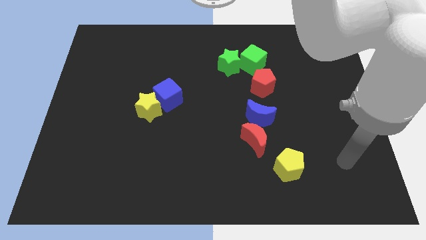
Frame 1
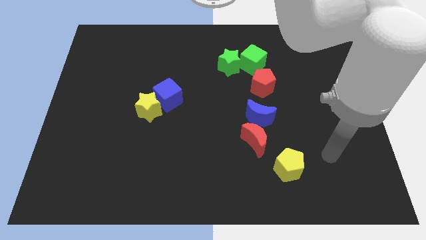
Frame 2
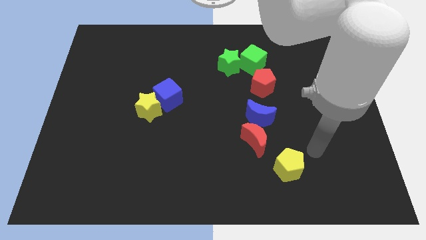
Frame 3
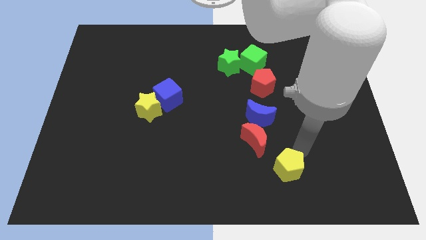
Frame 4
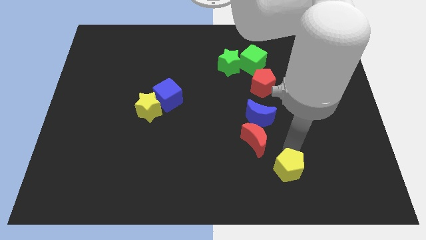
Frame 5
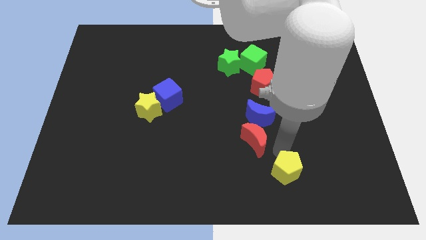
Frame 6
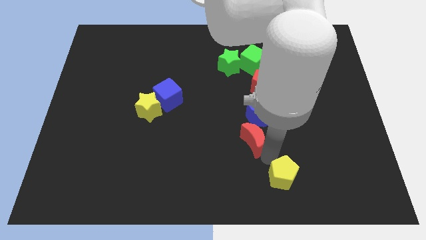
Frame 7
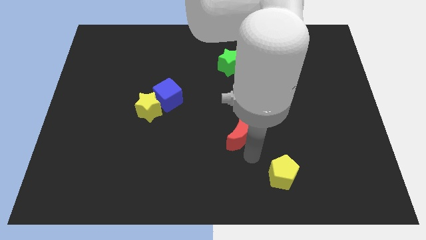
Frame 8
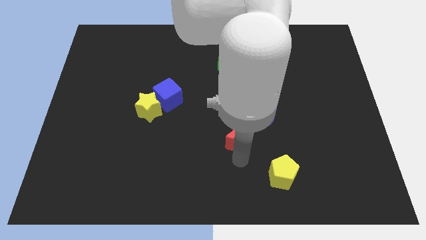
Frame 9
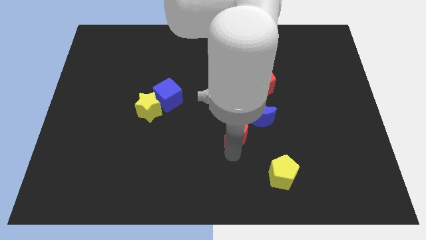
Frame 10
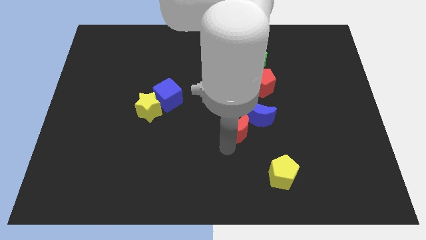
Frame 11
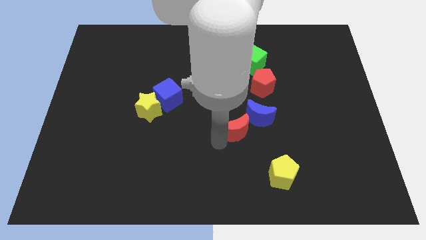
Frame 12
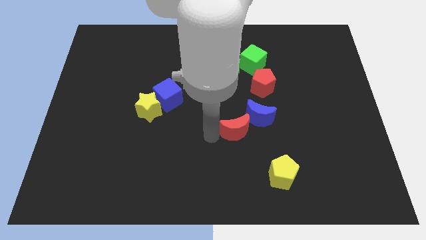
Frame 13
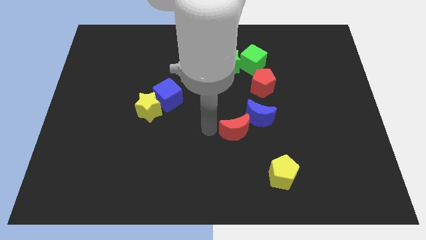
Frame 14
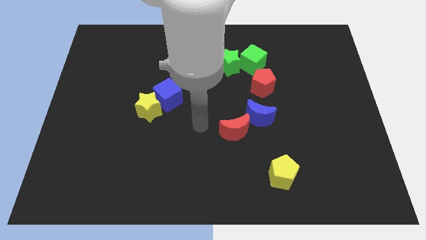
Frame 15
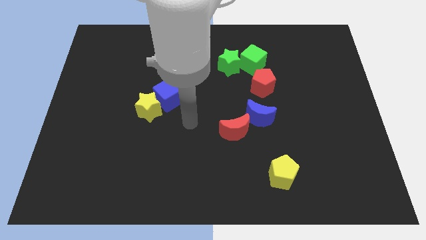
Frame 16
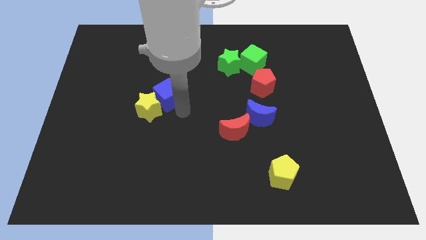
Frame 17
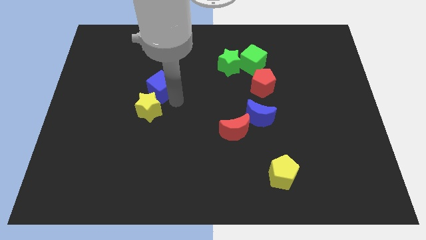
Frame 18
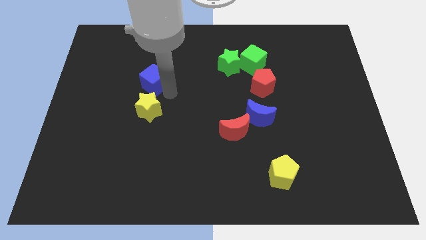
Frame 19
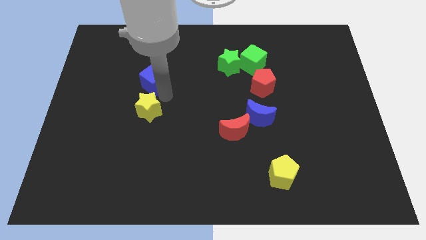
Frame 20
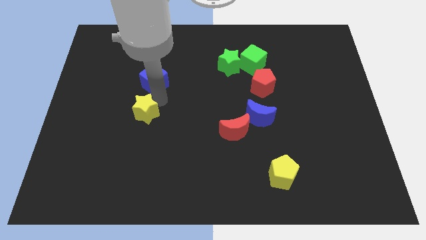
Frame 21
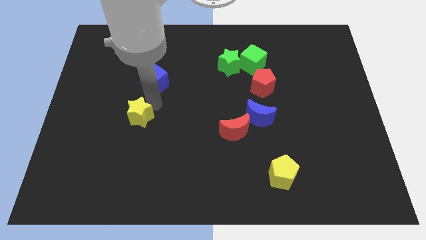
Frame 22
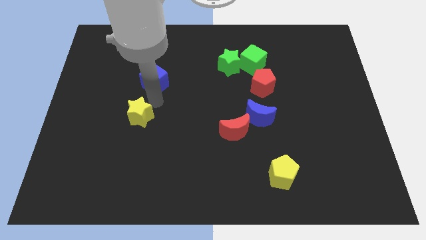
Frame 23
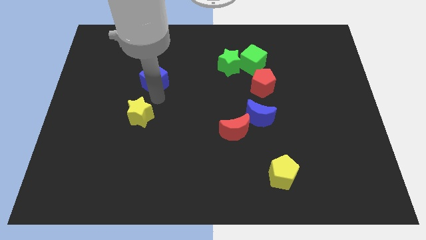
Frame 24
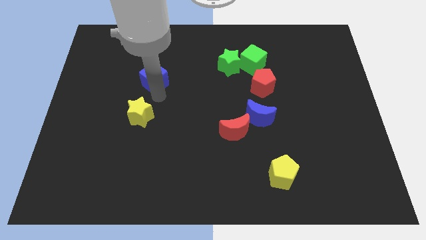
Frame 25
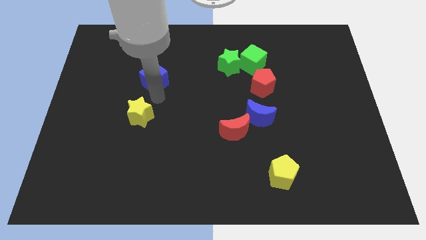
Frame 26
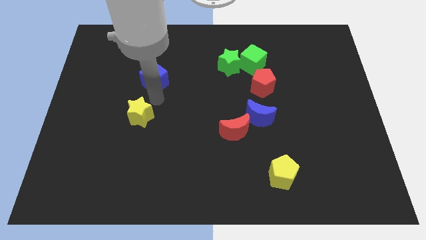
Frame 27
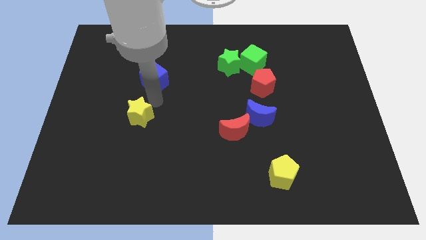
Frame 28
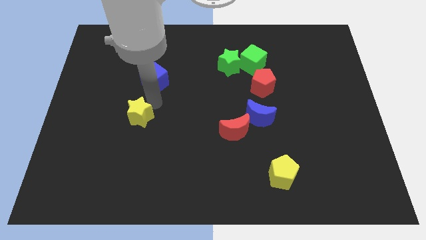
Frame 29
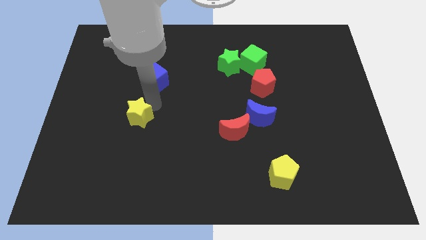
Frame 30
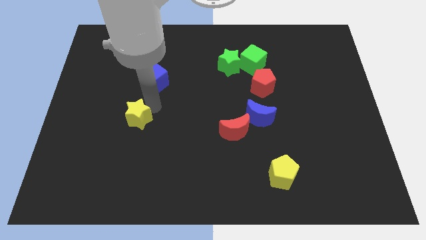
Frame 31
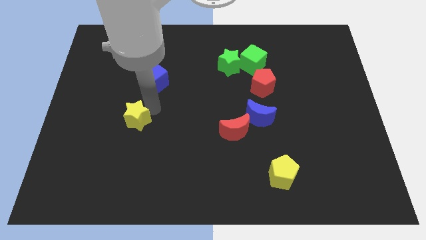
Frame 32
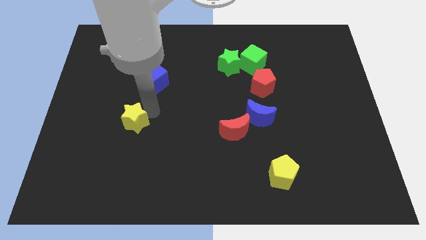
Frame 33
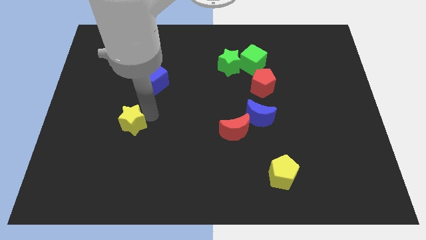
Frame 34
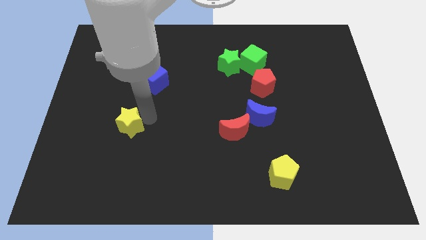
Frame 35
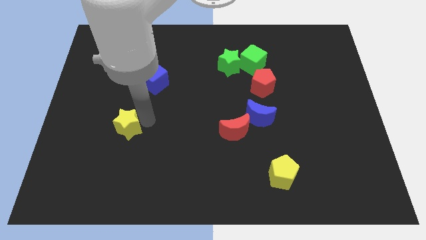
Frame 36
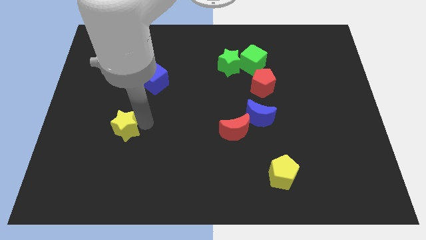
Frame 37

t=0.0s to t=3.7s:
slightly move the yellow star downwards and to the left diagonally

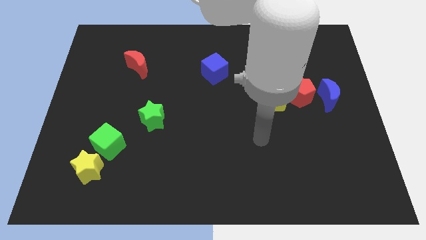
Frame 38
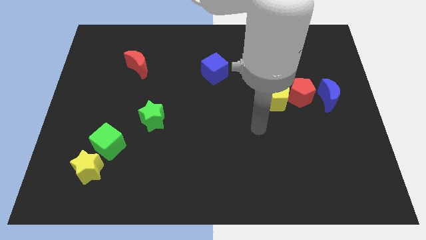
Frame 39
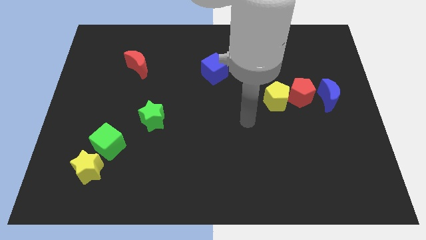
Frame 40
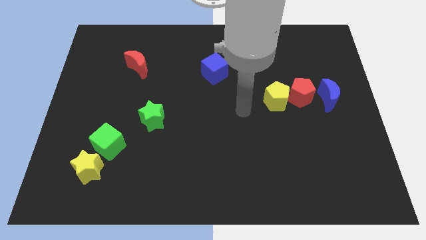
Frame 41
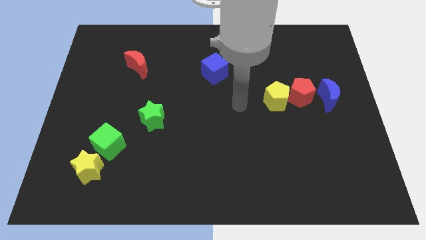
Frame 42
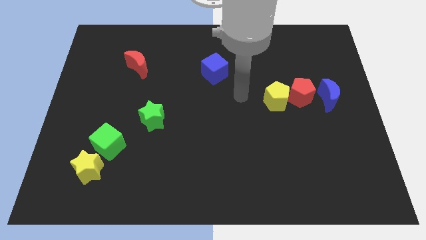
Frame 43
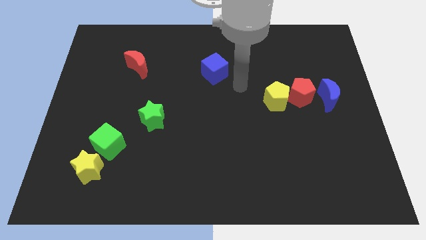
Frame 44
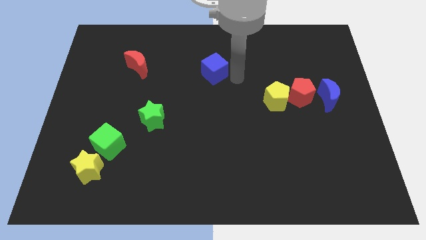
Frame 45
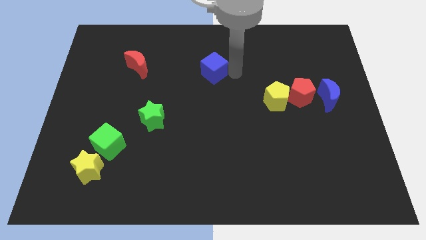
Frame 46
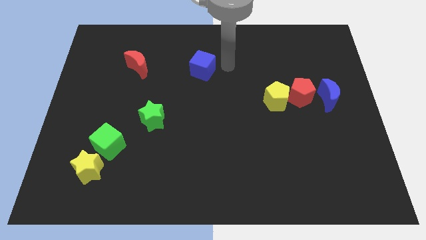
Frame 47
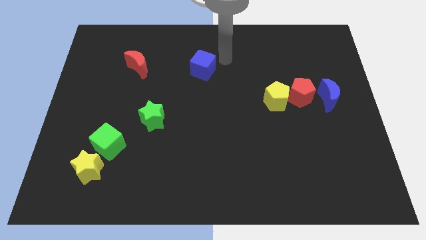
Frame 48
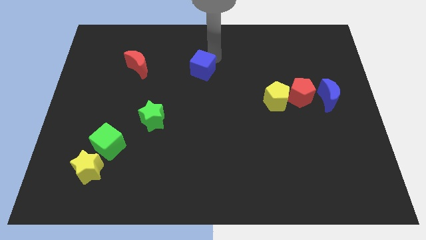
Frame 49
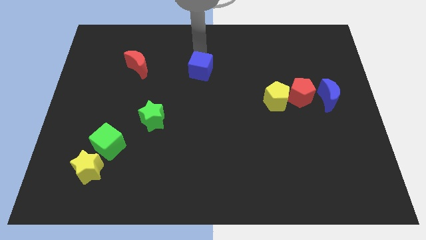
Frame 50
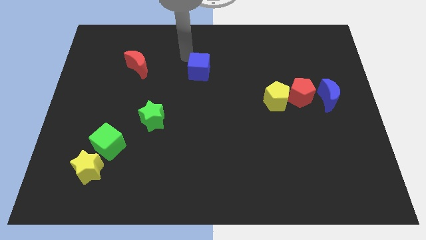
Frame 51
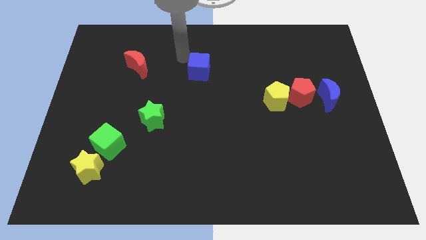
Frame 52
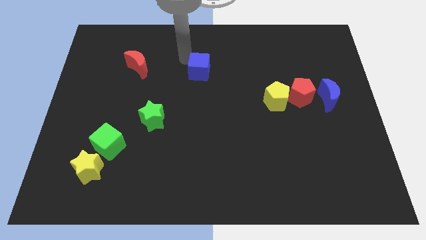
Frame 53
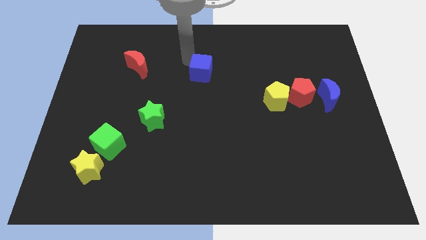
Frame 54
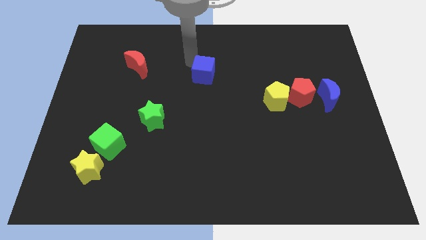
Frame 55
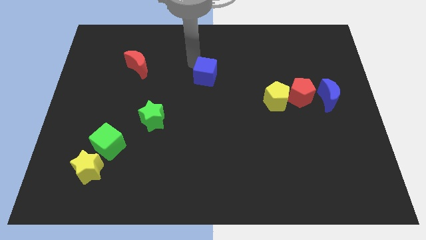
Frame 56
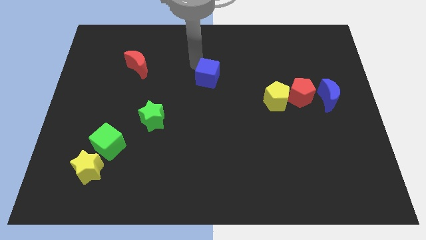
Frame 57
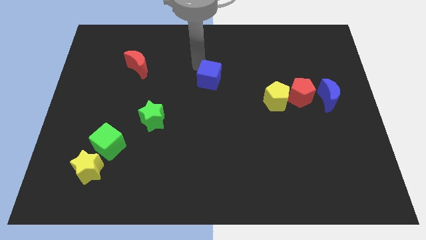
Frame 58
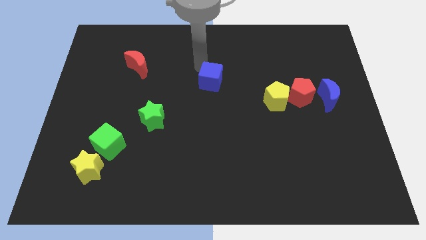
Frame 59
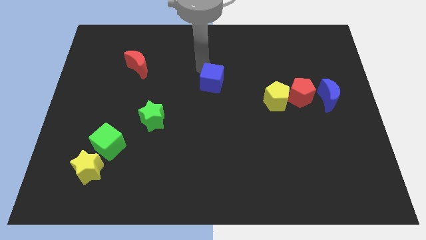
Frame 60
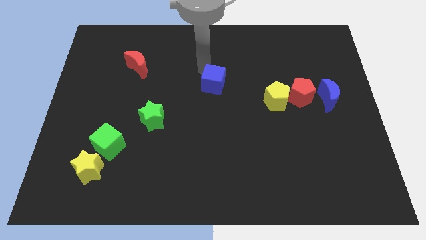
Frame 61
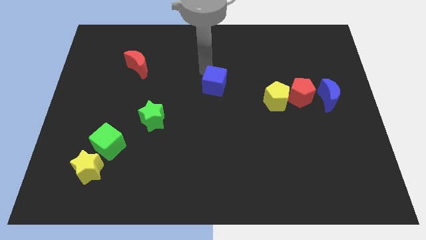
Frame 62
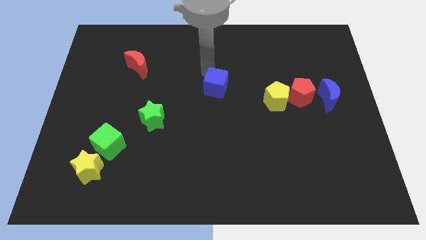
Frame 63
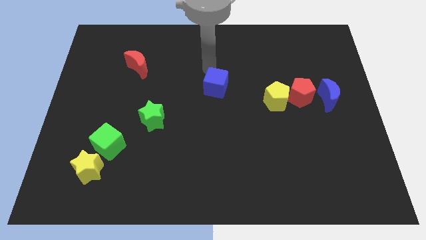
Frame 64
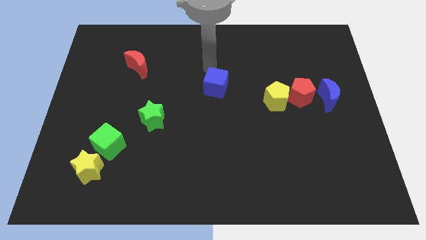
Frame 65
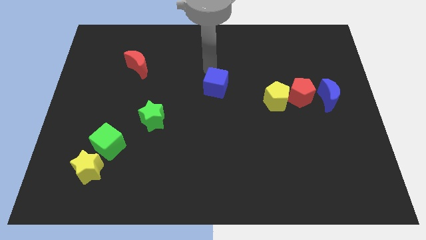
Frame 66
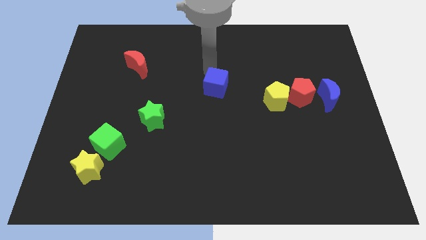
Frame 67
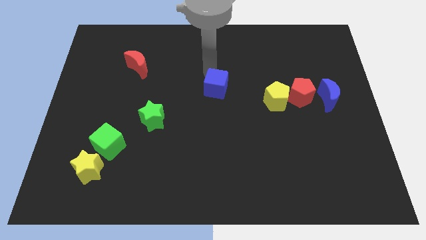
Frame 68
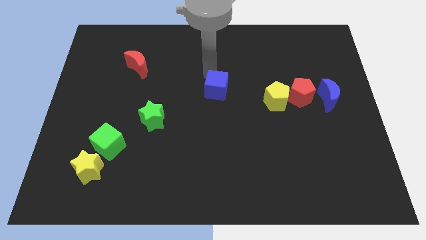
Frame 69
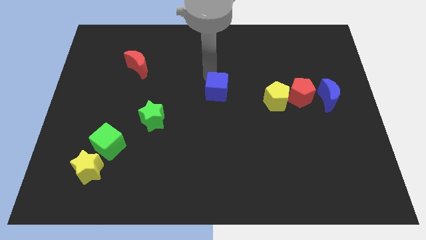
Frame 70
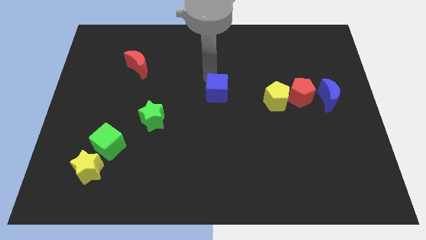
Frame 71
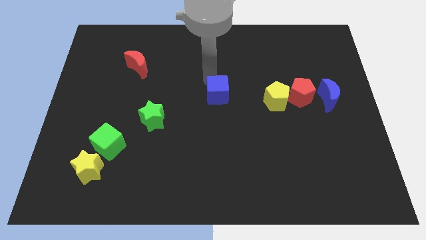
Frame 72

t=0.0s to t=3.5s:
slightly push the blue cube downwards

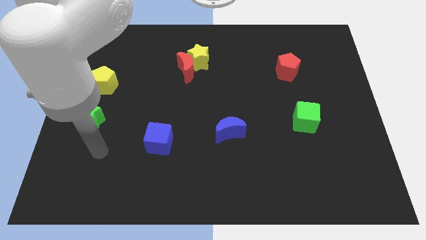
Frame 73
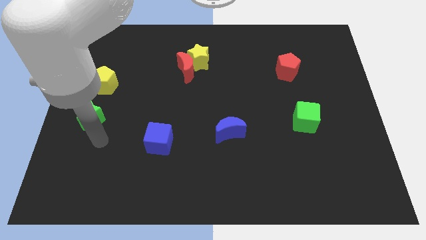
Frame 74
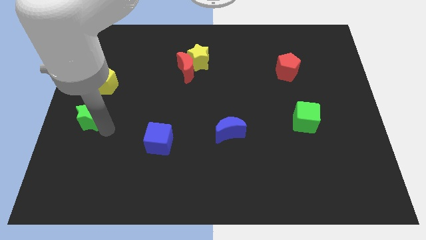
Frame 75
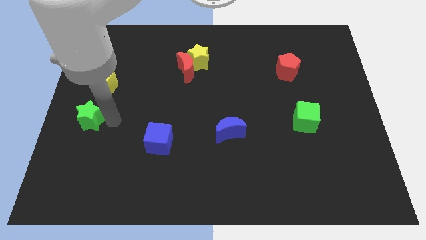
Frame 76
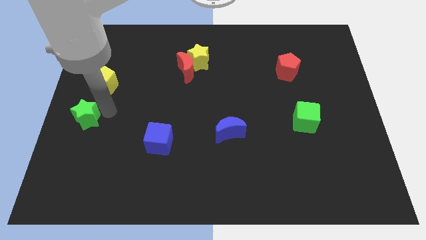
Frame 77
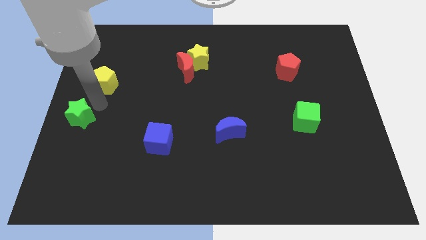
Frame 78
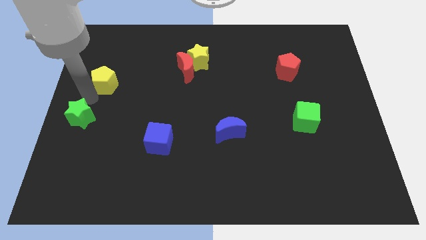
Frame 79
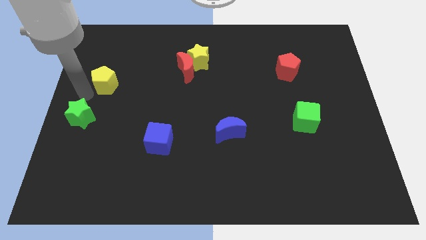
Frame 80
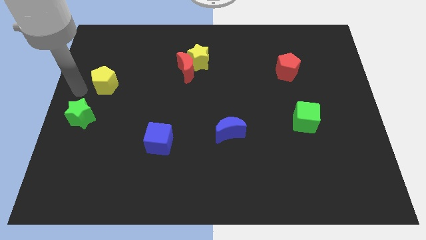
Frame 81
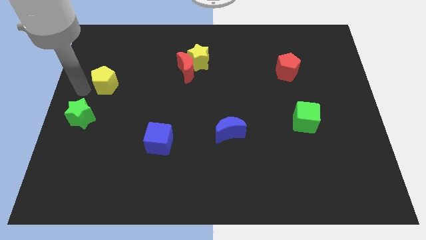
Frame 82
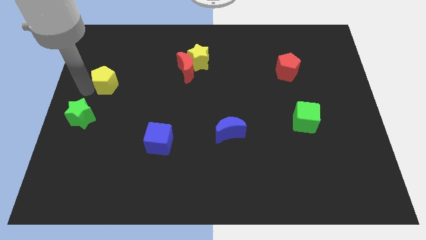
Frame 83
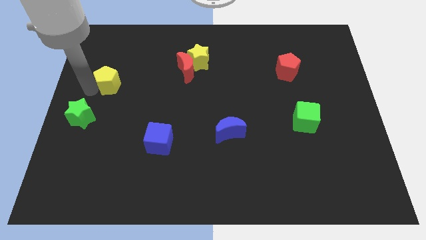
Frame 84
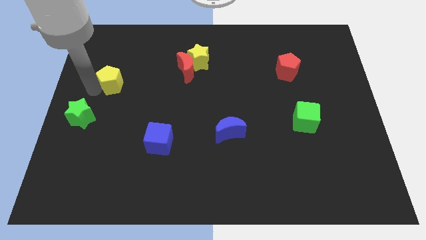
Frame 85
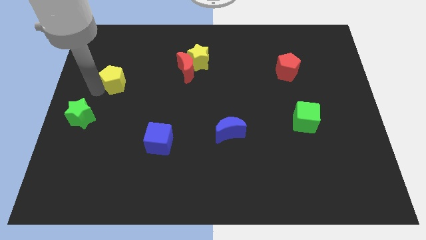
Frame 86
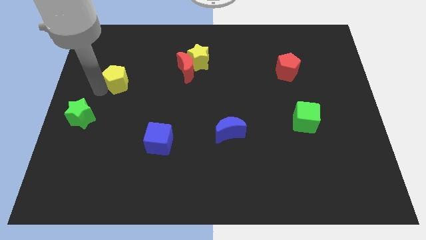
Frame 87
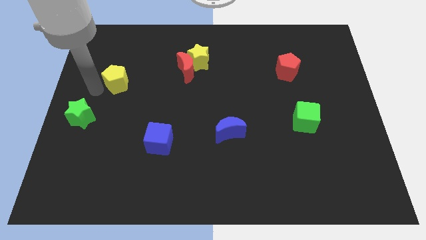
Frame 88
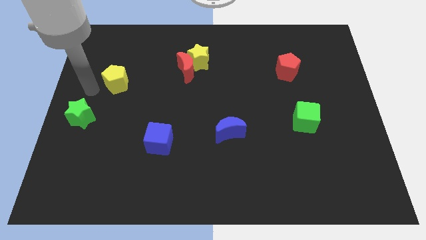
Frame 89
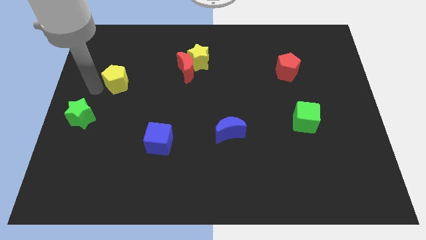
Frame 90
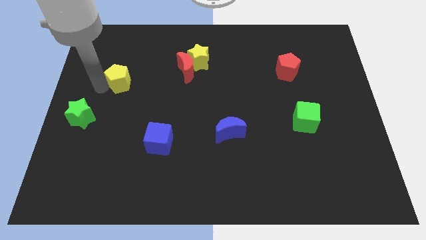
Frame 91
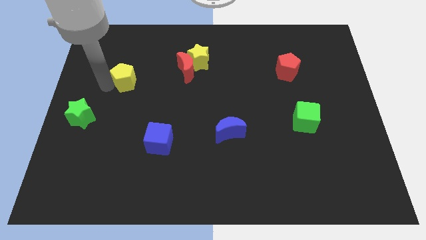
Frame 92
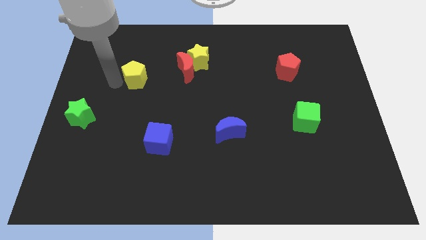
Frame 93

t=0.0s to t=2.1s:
slide the yellow pentagon somewhat right
